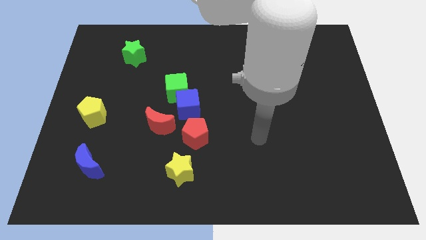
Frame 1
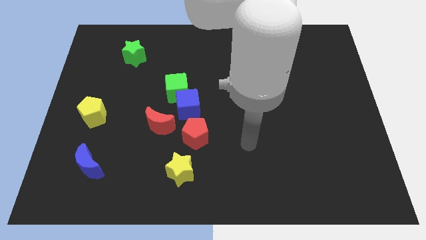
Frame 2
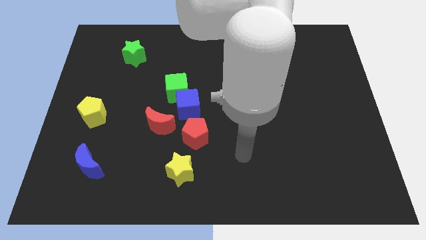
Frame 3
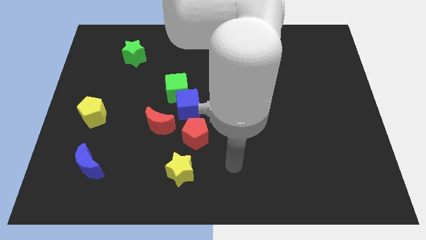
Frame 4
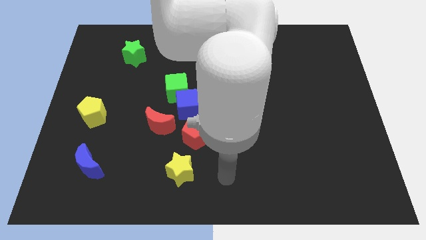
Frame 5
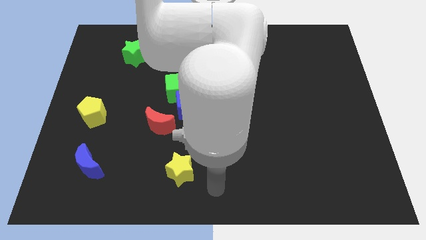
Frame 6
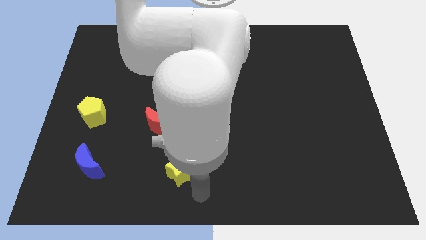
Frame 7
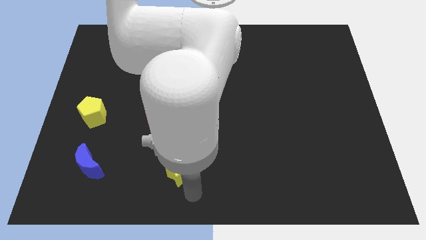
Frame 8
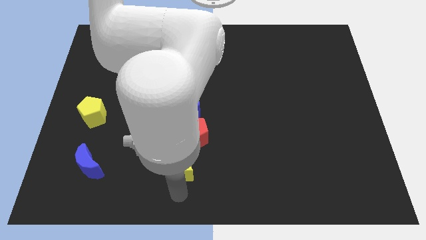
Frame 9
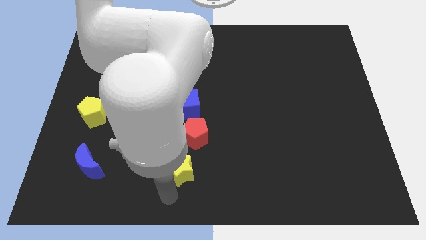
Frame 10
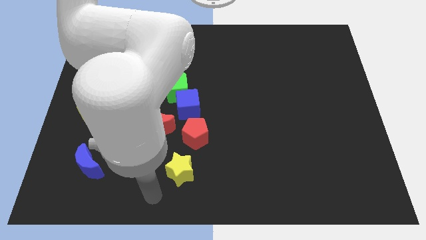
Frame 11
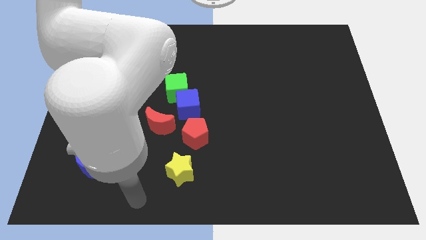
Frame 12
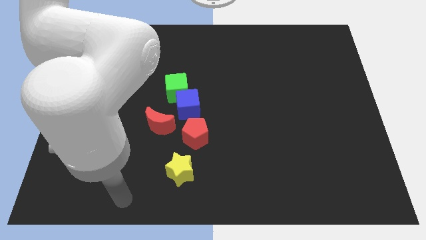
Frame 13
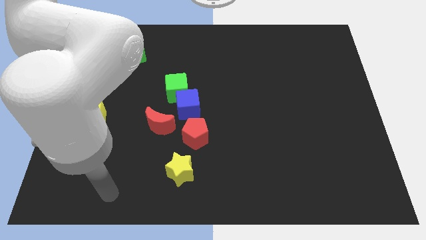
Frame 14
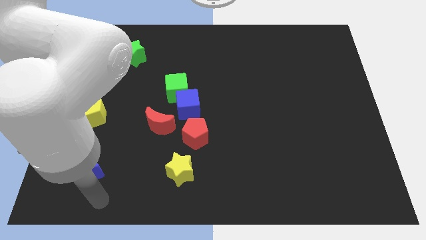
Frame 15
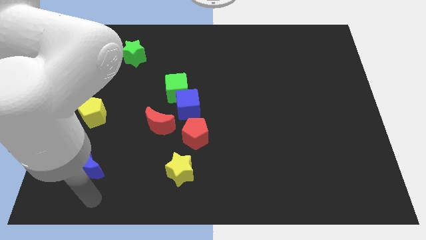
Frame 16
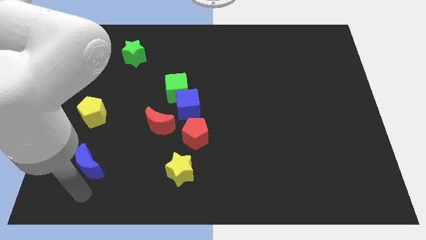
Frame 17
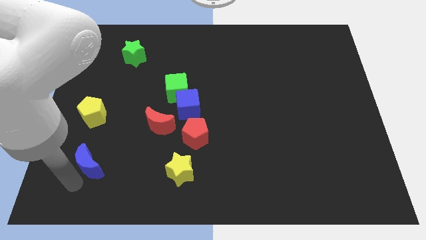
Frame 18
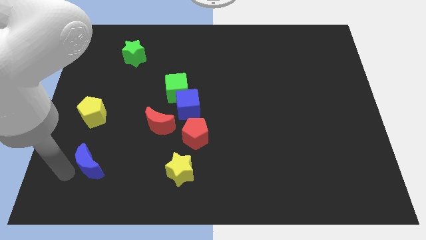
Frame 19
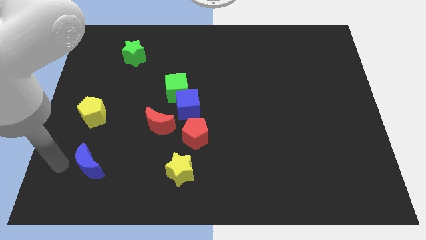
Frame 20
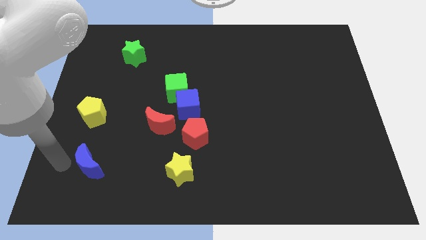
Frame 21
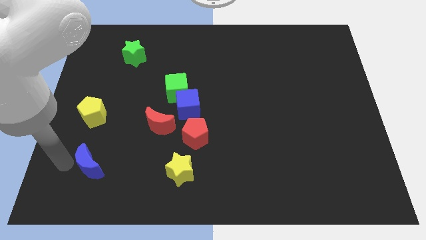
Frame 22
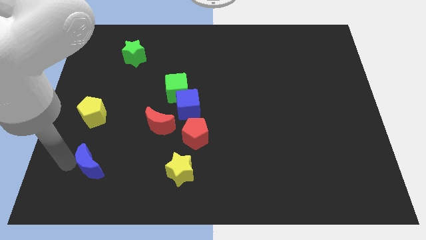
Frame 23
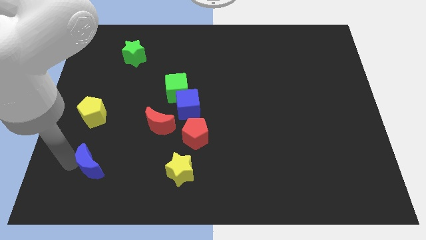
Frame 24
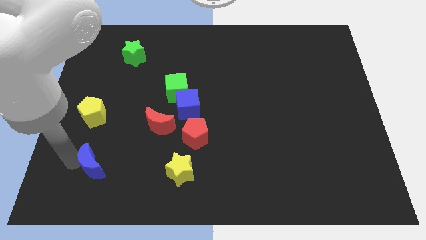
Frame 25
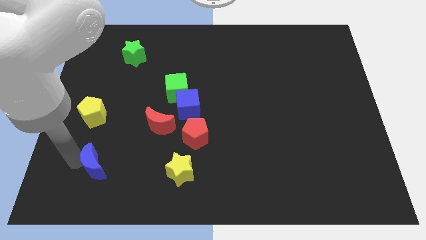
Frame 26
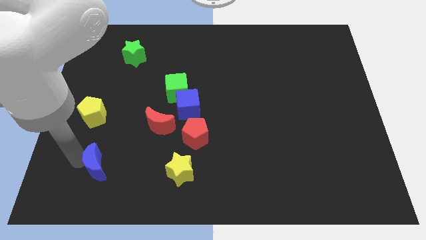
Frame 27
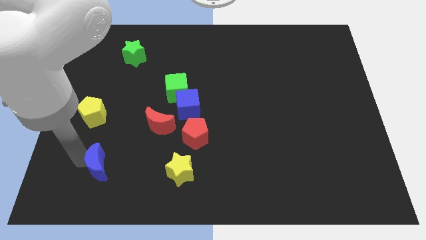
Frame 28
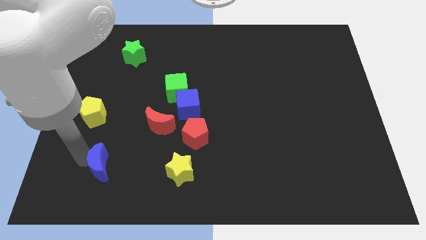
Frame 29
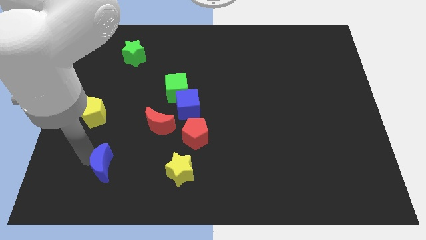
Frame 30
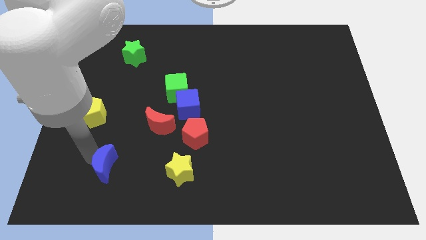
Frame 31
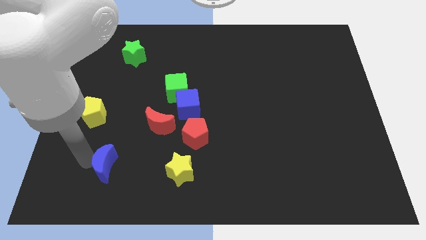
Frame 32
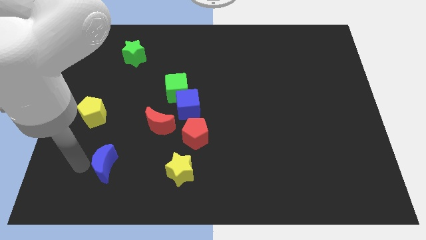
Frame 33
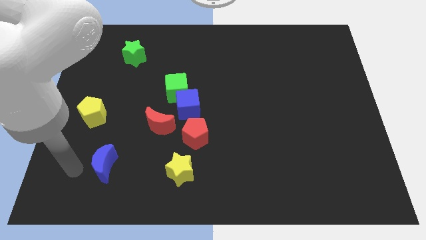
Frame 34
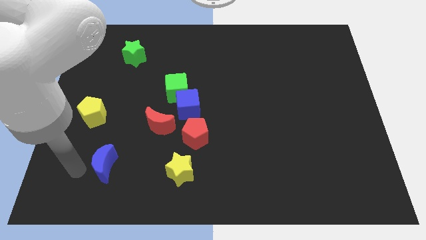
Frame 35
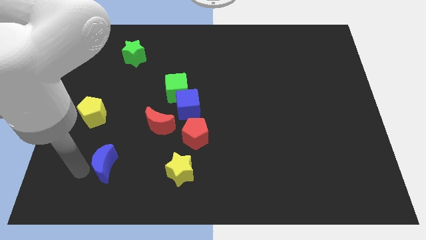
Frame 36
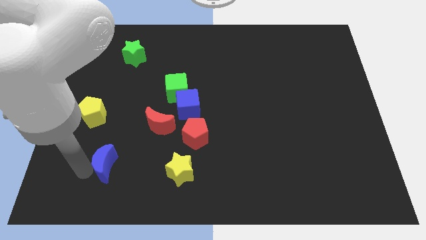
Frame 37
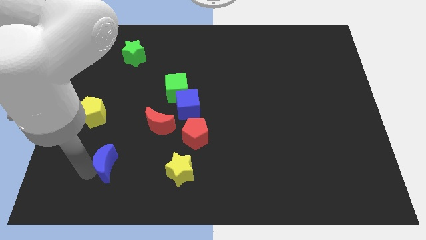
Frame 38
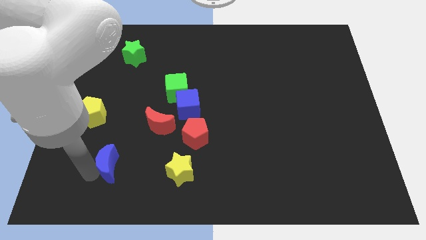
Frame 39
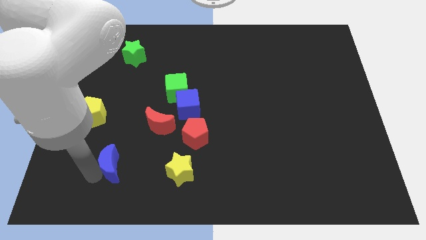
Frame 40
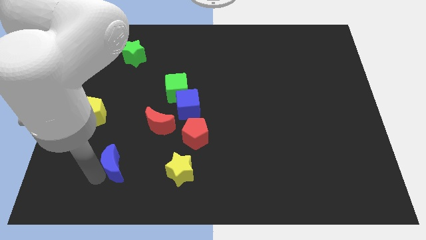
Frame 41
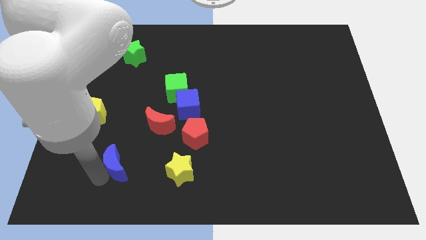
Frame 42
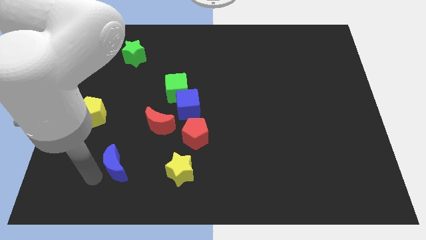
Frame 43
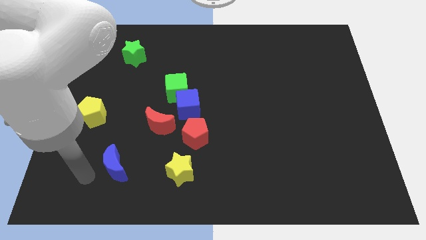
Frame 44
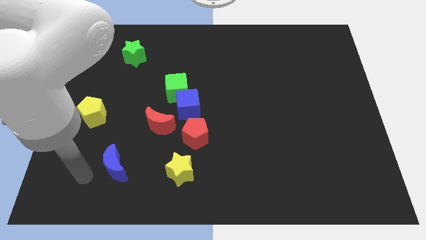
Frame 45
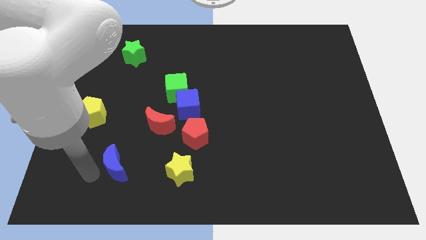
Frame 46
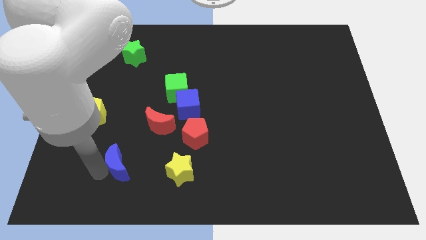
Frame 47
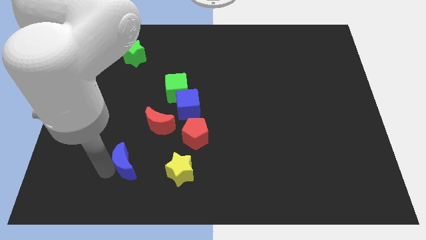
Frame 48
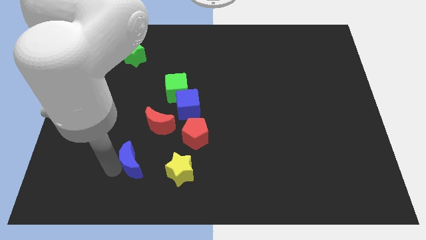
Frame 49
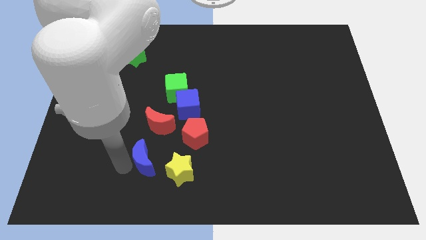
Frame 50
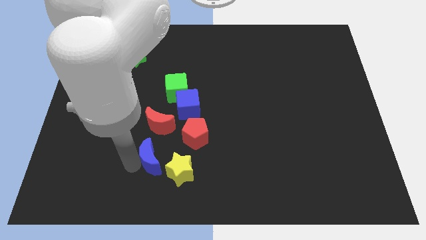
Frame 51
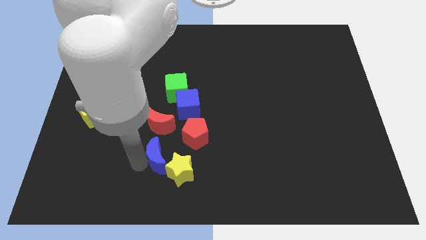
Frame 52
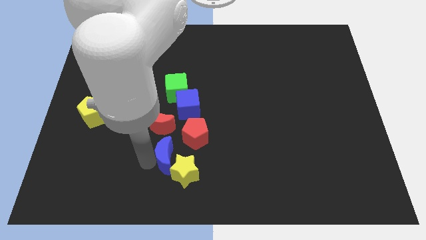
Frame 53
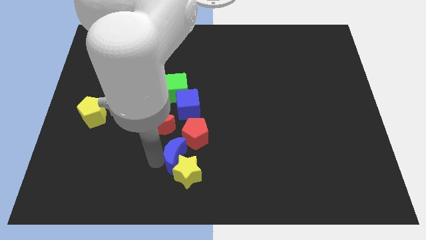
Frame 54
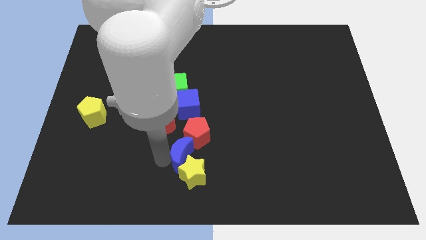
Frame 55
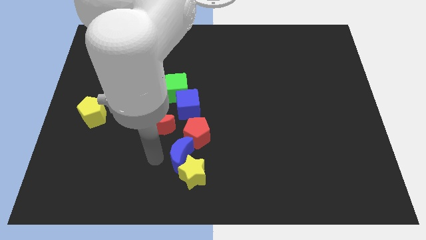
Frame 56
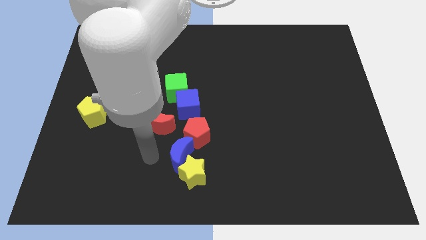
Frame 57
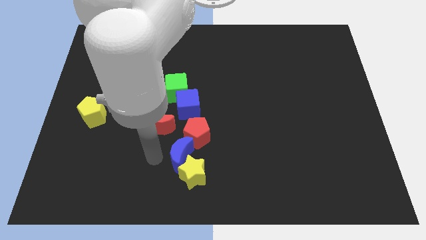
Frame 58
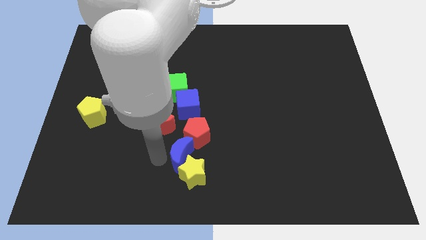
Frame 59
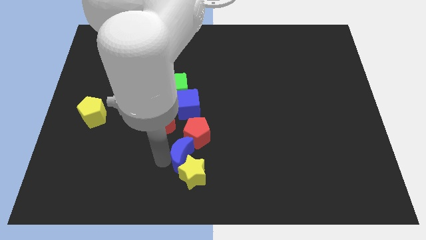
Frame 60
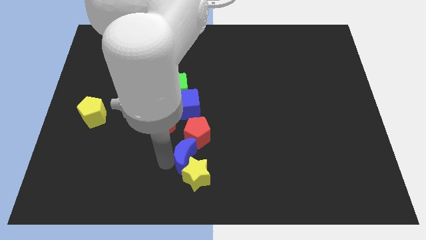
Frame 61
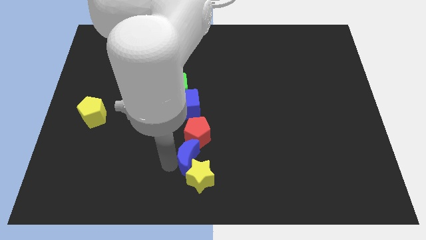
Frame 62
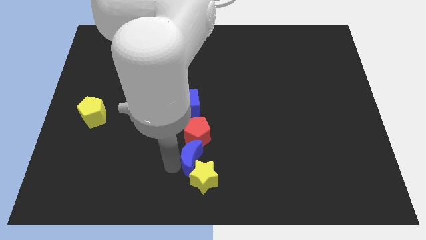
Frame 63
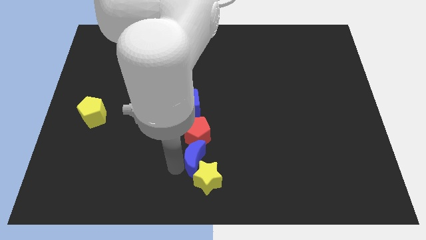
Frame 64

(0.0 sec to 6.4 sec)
push the blue moon to the bottom right side of the red pentagon

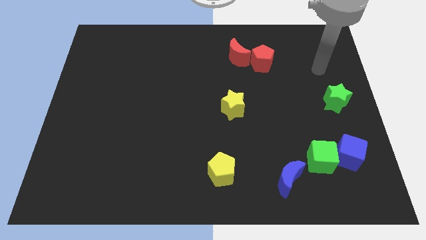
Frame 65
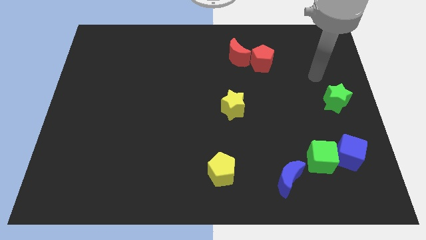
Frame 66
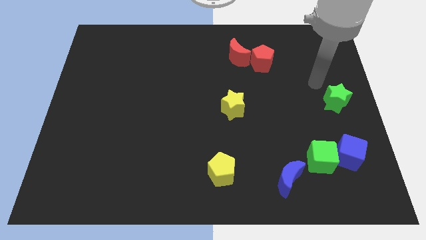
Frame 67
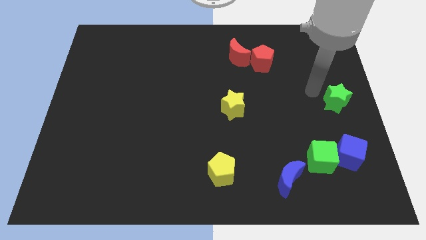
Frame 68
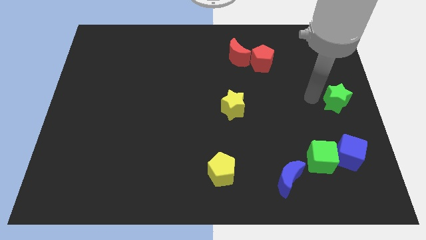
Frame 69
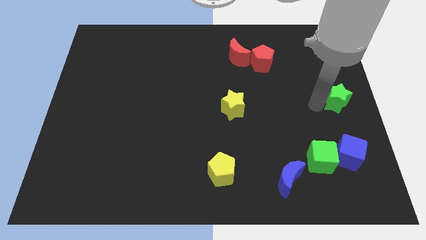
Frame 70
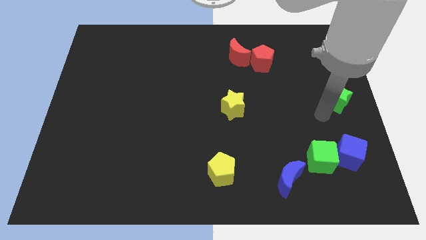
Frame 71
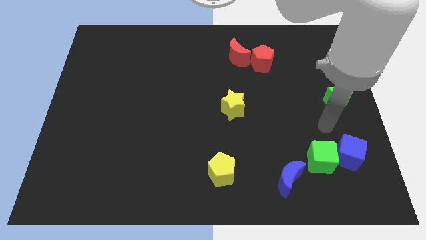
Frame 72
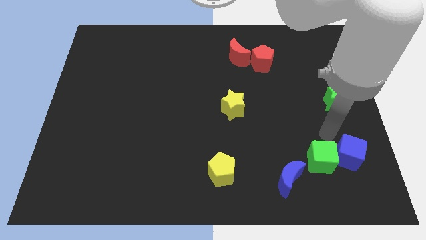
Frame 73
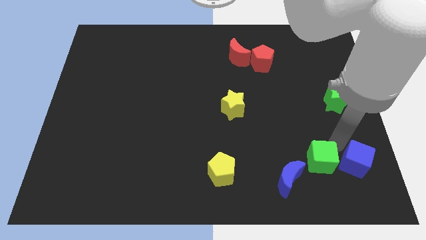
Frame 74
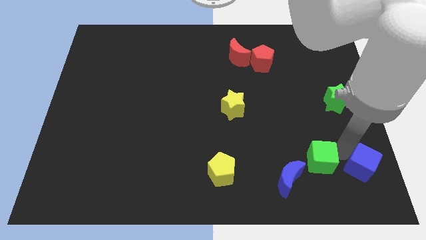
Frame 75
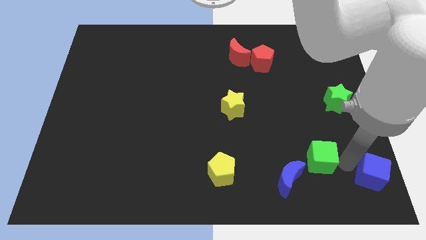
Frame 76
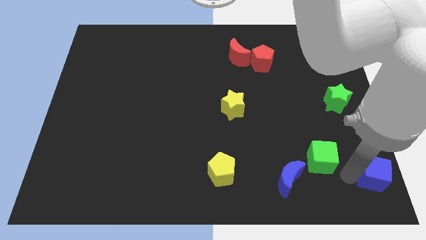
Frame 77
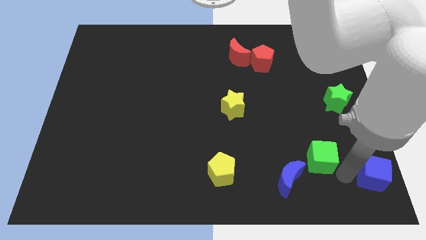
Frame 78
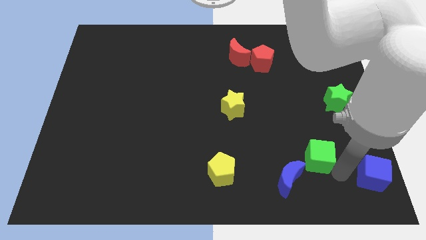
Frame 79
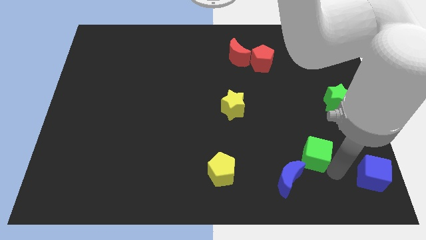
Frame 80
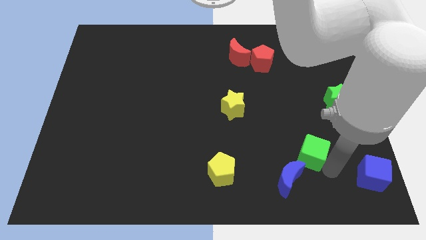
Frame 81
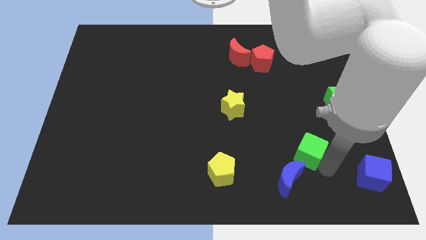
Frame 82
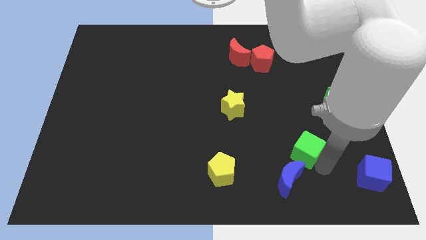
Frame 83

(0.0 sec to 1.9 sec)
move the green cube to the top of the blue moon
